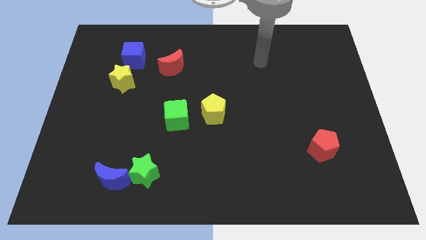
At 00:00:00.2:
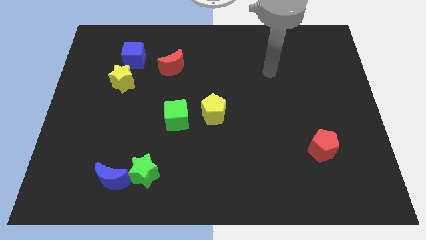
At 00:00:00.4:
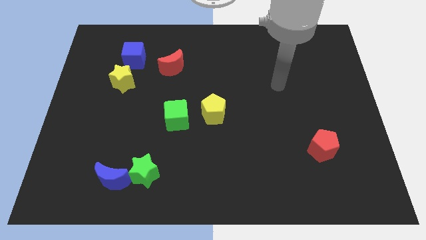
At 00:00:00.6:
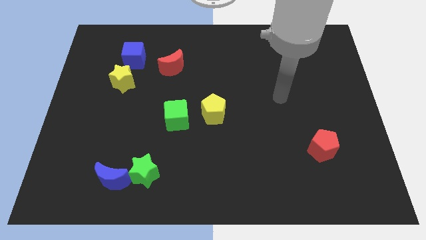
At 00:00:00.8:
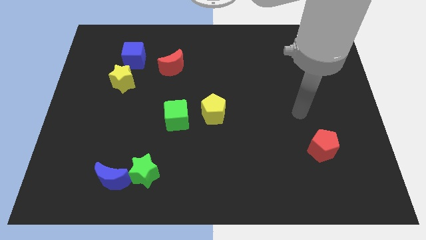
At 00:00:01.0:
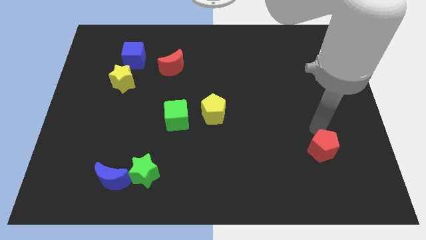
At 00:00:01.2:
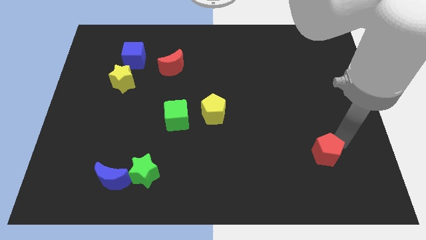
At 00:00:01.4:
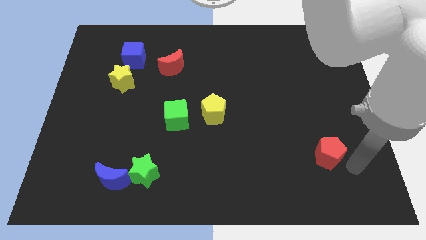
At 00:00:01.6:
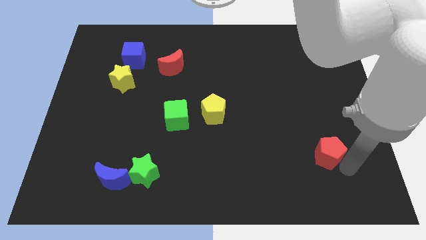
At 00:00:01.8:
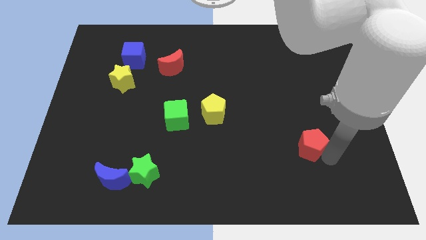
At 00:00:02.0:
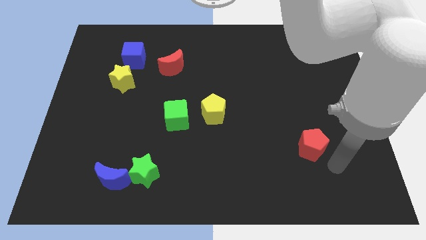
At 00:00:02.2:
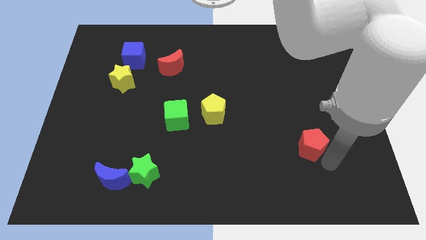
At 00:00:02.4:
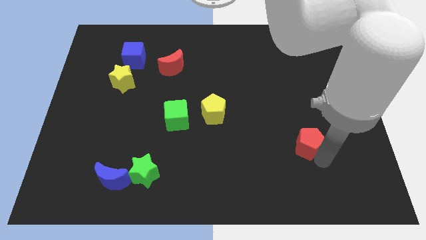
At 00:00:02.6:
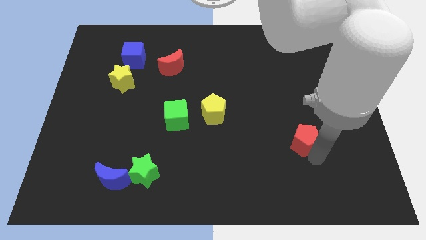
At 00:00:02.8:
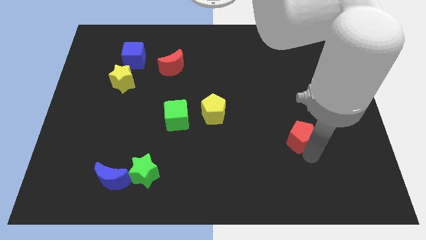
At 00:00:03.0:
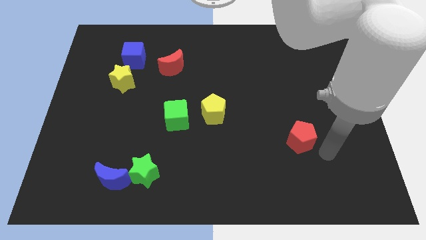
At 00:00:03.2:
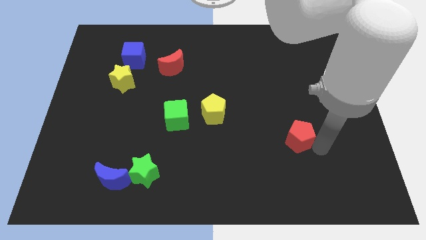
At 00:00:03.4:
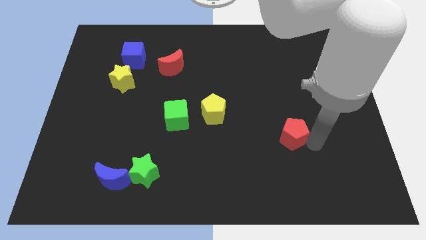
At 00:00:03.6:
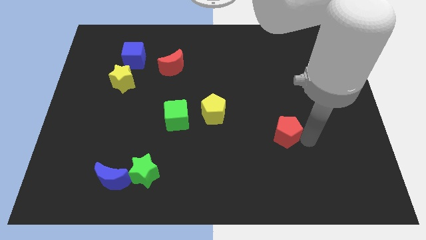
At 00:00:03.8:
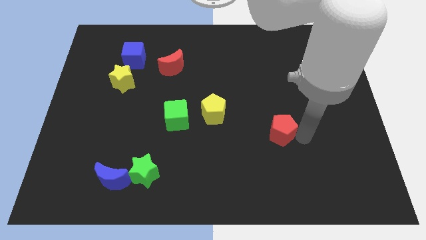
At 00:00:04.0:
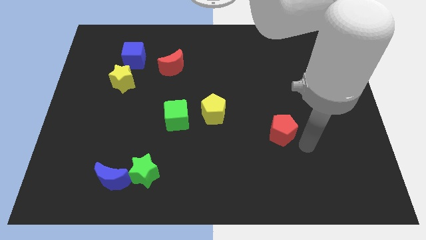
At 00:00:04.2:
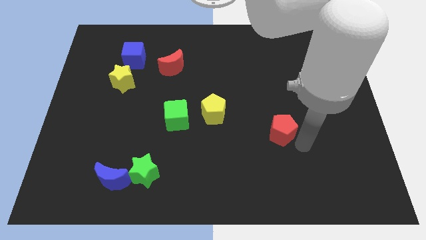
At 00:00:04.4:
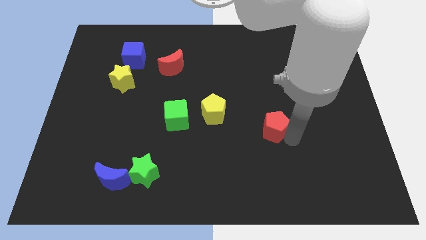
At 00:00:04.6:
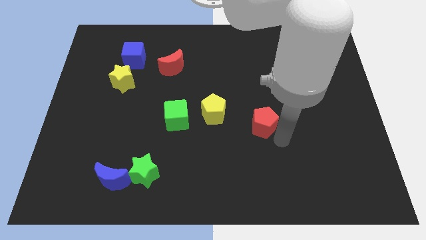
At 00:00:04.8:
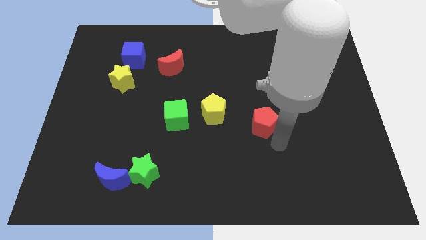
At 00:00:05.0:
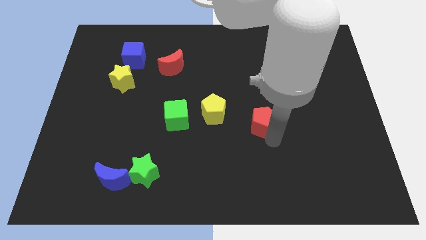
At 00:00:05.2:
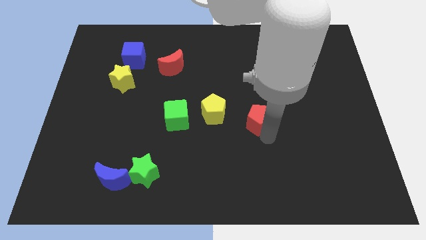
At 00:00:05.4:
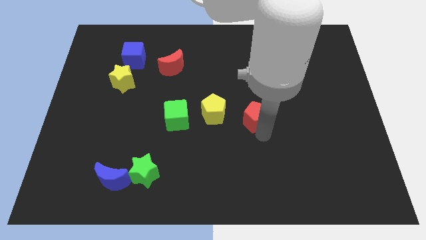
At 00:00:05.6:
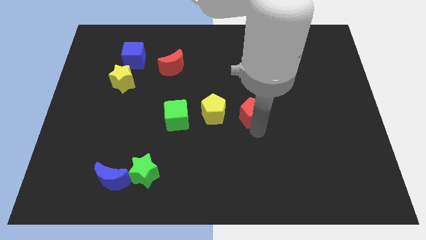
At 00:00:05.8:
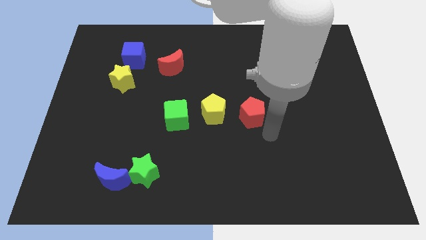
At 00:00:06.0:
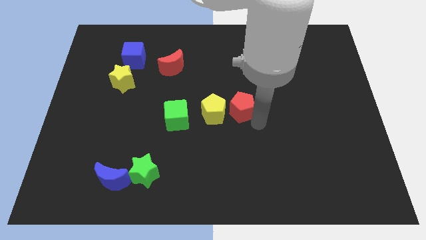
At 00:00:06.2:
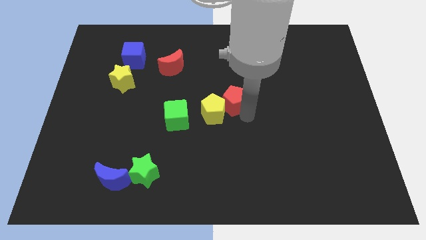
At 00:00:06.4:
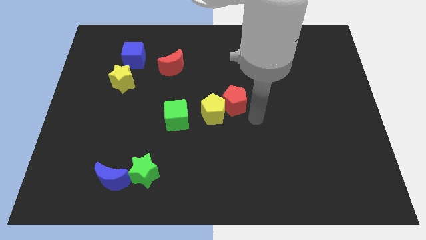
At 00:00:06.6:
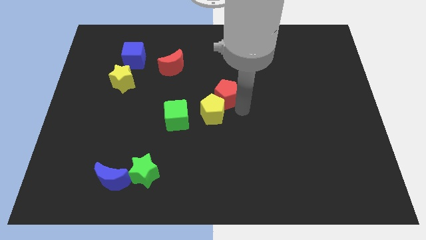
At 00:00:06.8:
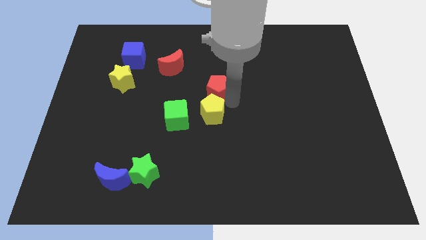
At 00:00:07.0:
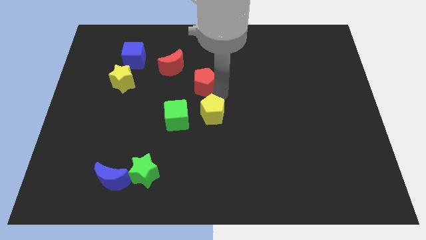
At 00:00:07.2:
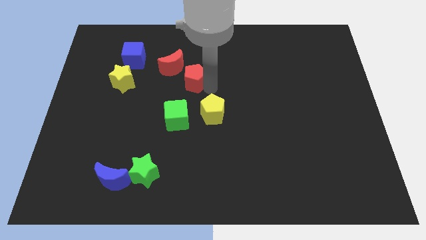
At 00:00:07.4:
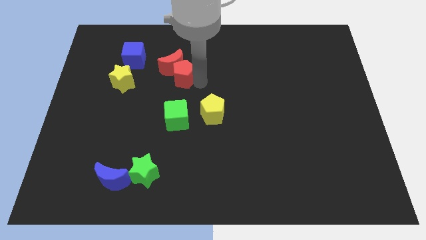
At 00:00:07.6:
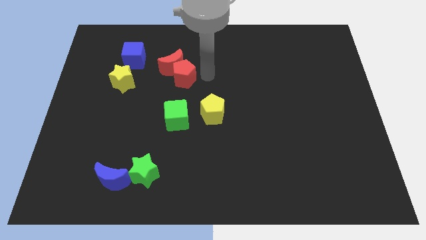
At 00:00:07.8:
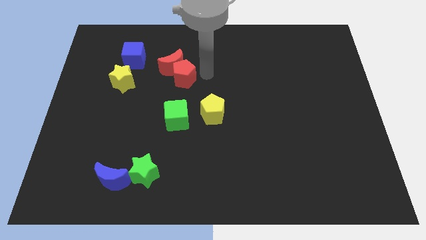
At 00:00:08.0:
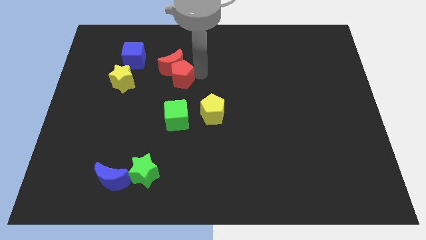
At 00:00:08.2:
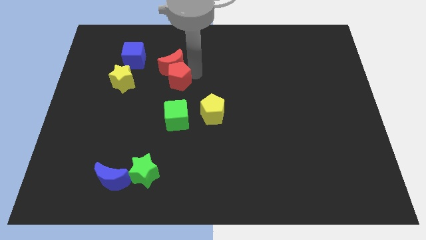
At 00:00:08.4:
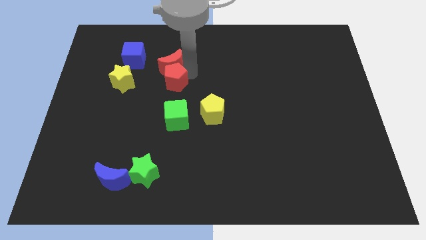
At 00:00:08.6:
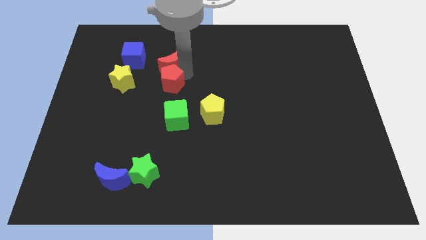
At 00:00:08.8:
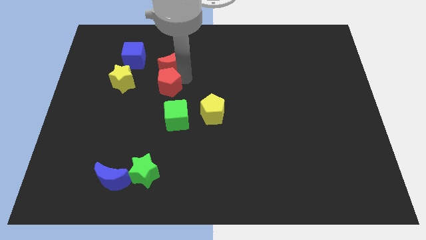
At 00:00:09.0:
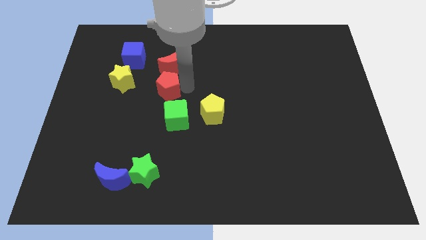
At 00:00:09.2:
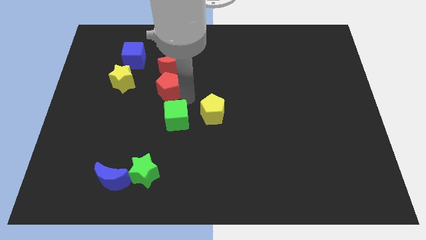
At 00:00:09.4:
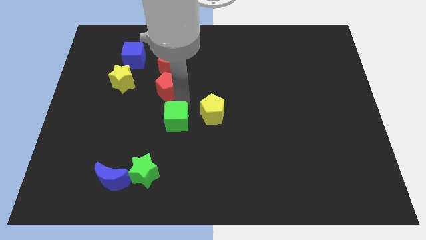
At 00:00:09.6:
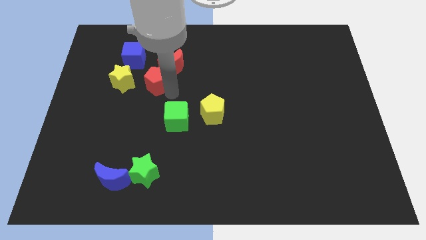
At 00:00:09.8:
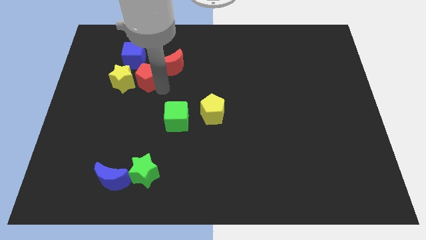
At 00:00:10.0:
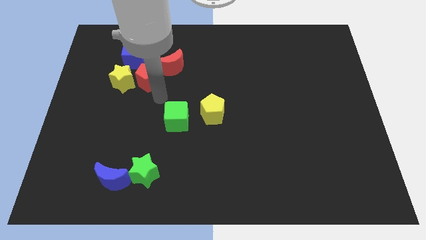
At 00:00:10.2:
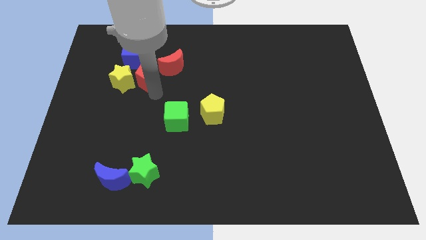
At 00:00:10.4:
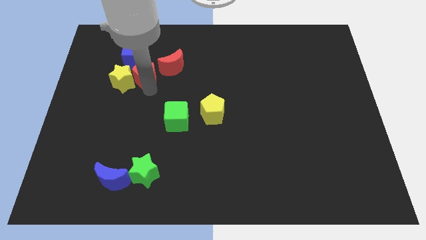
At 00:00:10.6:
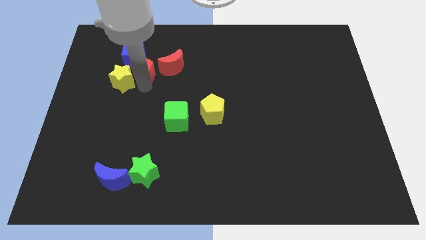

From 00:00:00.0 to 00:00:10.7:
slide the red pentagon close to the blue cube

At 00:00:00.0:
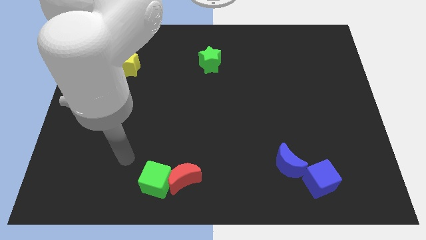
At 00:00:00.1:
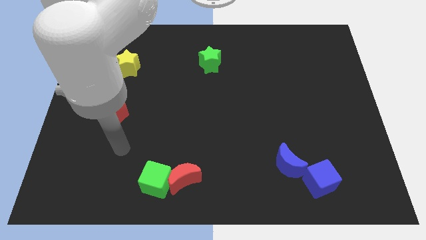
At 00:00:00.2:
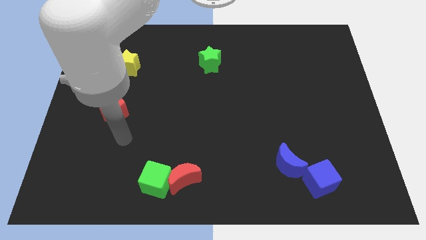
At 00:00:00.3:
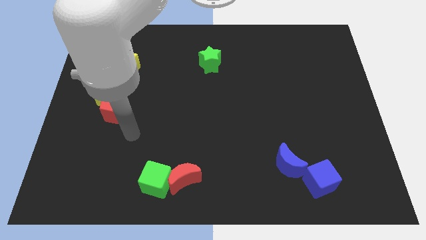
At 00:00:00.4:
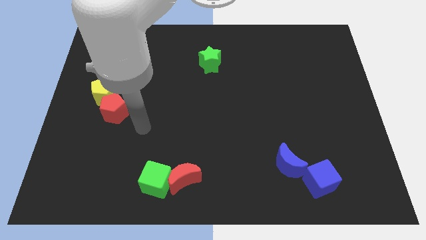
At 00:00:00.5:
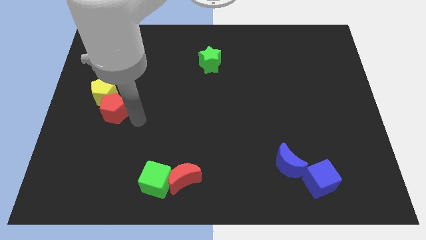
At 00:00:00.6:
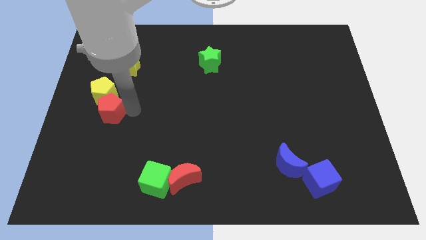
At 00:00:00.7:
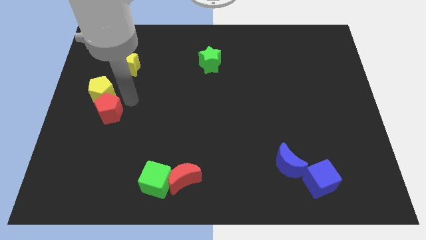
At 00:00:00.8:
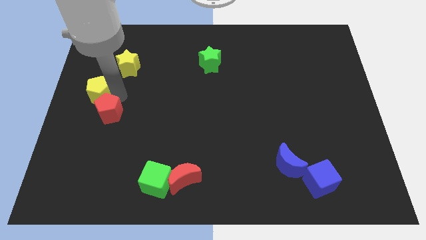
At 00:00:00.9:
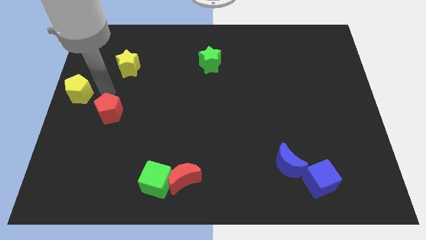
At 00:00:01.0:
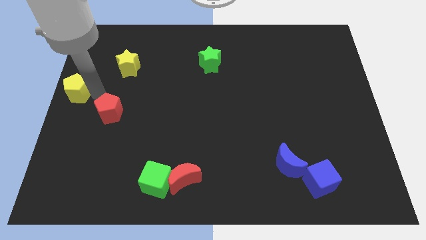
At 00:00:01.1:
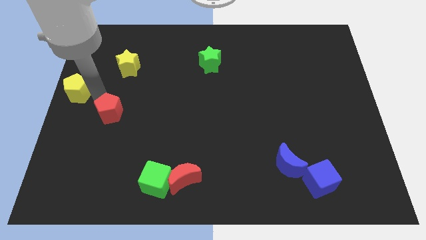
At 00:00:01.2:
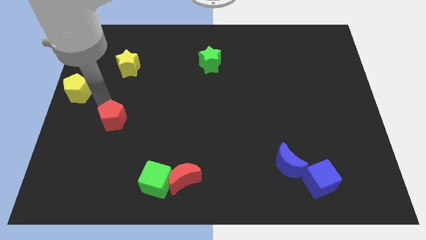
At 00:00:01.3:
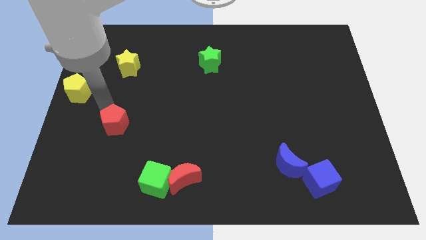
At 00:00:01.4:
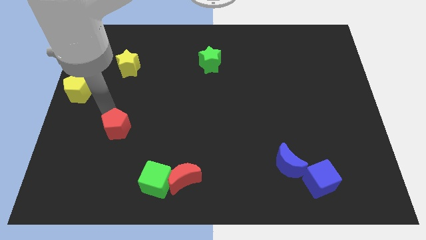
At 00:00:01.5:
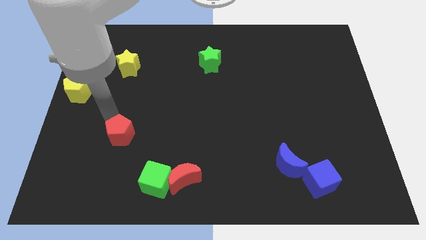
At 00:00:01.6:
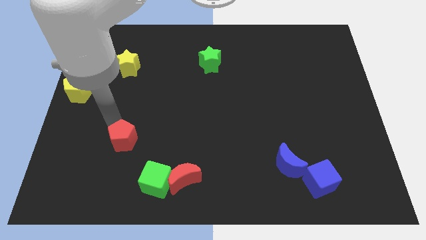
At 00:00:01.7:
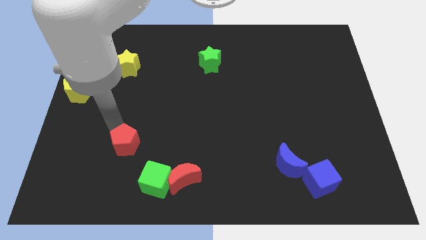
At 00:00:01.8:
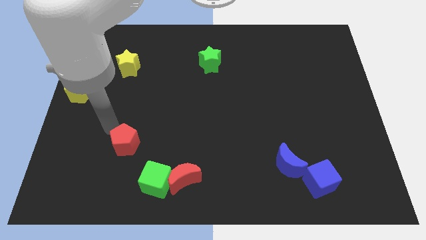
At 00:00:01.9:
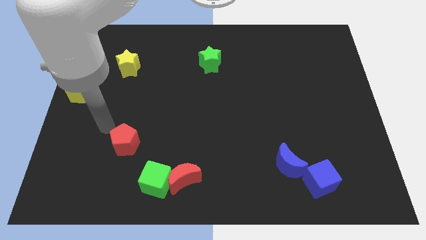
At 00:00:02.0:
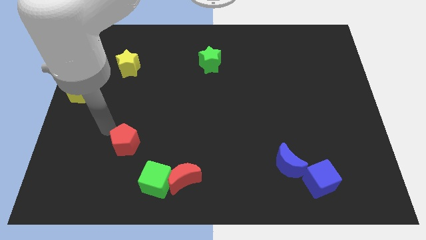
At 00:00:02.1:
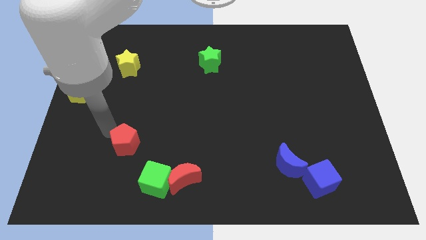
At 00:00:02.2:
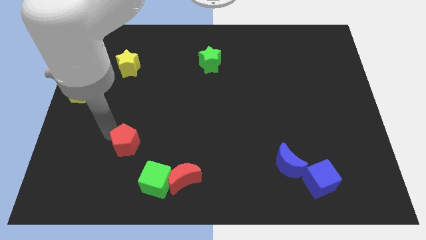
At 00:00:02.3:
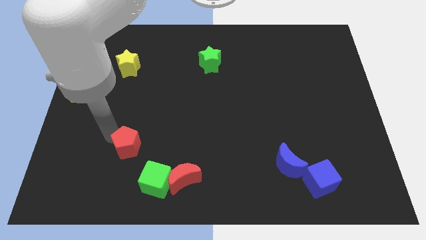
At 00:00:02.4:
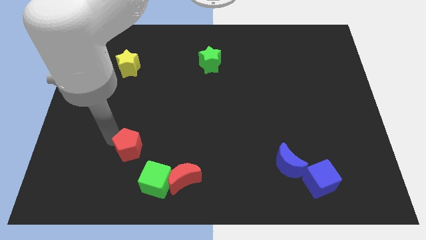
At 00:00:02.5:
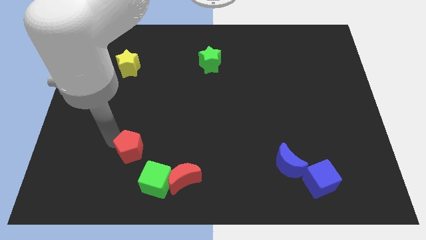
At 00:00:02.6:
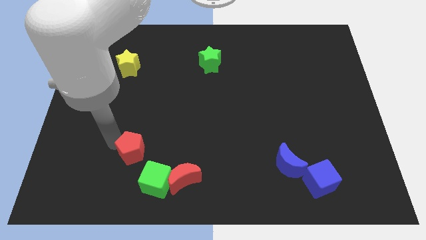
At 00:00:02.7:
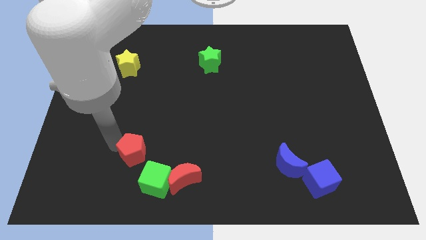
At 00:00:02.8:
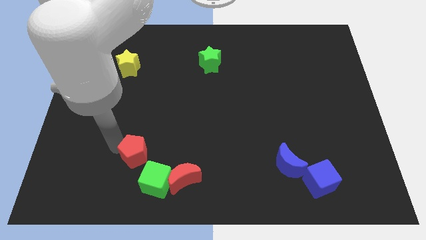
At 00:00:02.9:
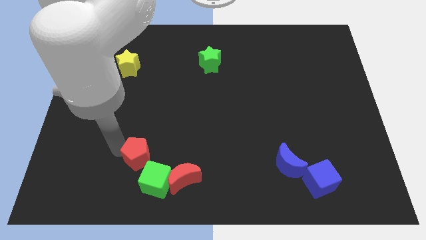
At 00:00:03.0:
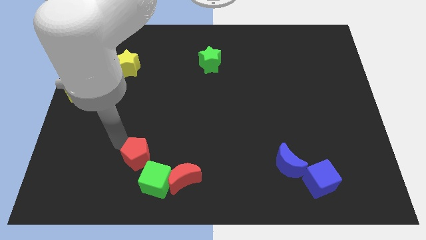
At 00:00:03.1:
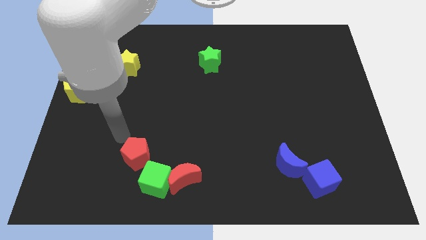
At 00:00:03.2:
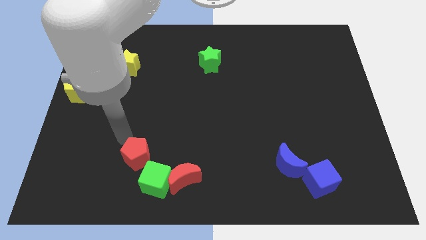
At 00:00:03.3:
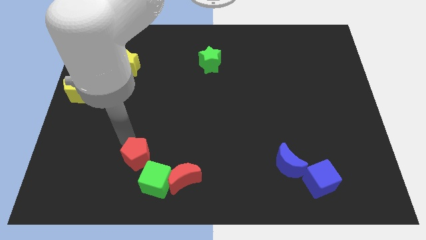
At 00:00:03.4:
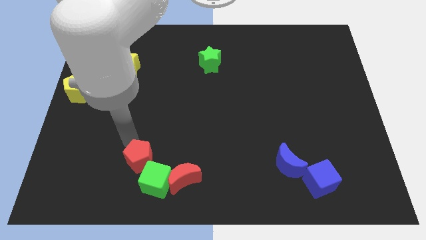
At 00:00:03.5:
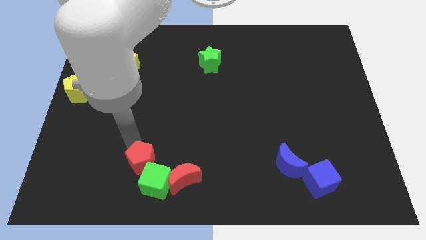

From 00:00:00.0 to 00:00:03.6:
move the red pentagon next to the green cube
